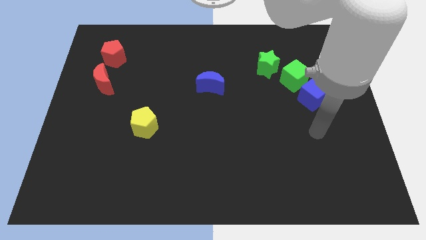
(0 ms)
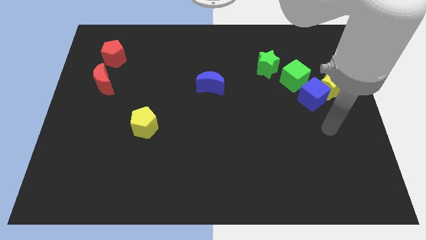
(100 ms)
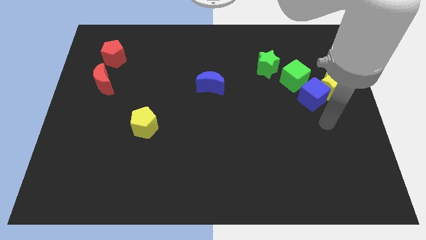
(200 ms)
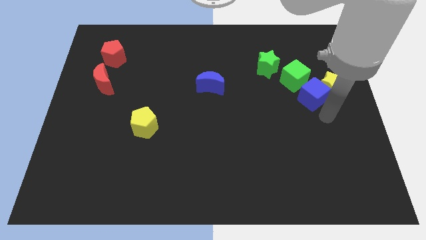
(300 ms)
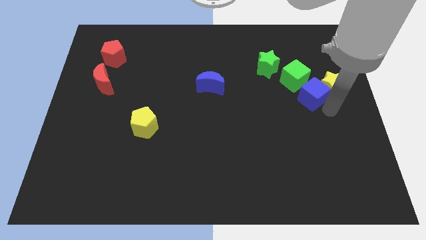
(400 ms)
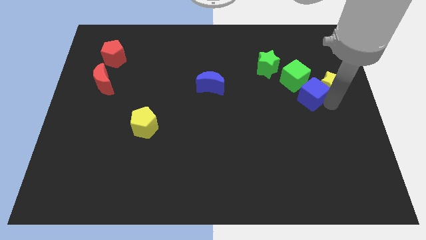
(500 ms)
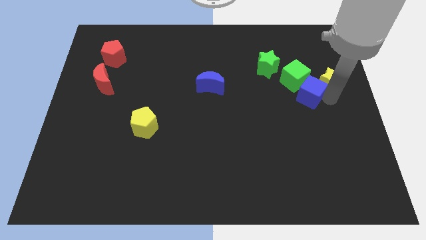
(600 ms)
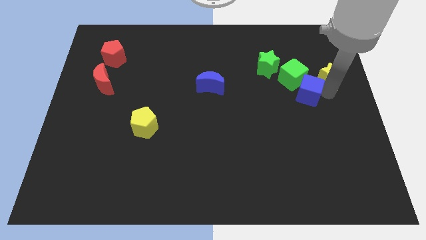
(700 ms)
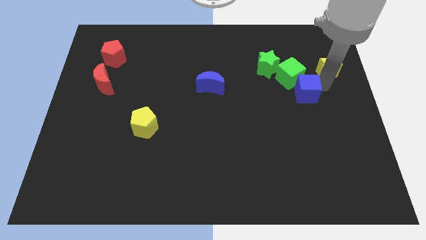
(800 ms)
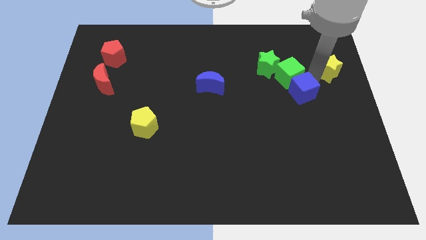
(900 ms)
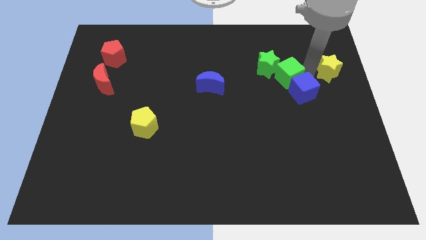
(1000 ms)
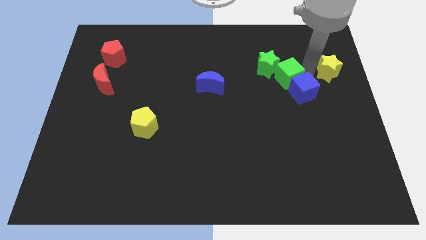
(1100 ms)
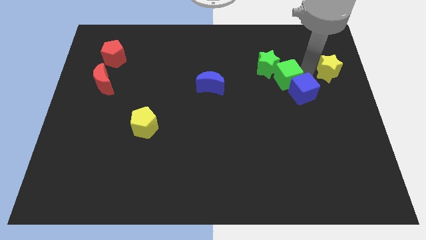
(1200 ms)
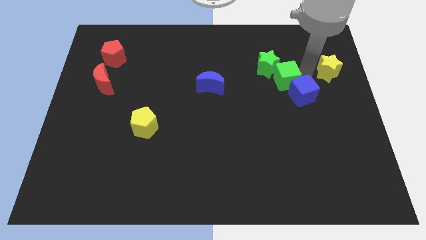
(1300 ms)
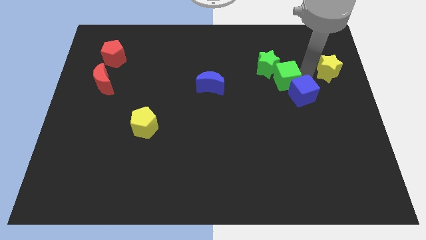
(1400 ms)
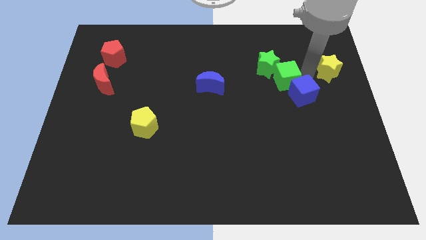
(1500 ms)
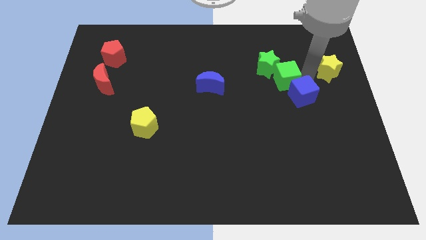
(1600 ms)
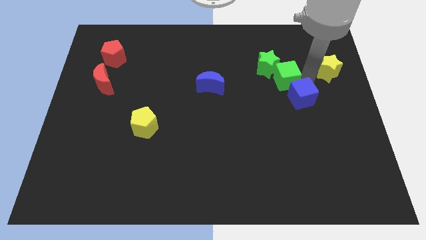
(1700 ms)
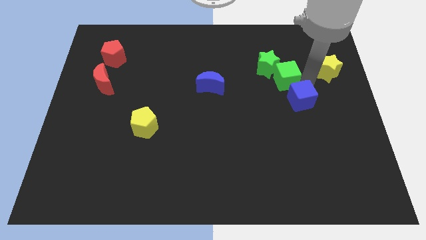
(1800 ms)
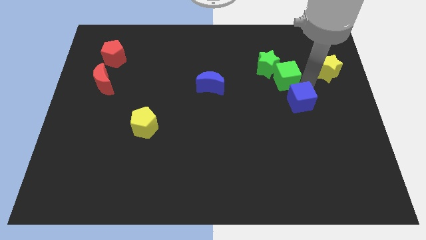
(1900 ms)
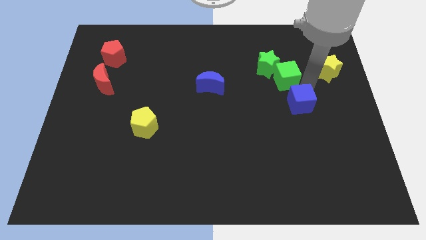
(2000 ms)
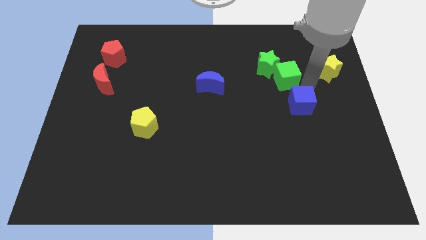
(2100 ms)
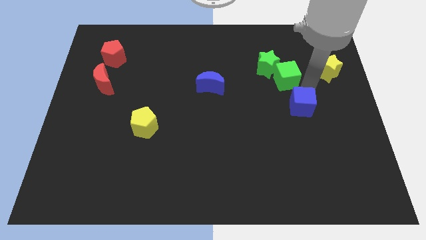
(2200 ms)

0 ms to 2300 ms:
separate the blue cube from the yellow star and green cube

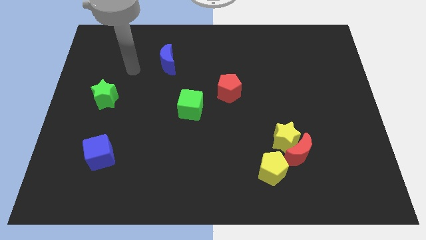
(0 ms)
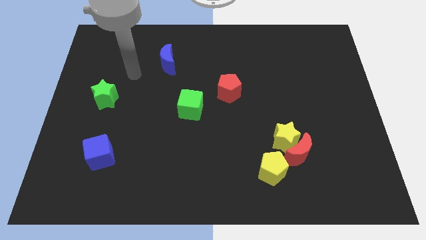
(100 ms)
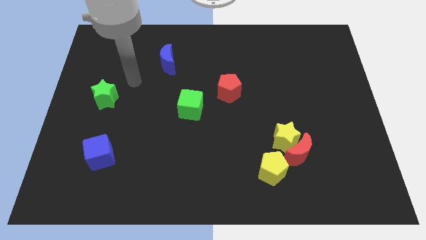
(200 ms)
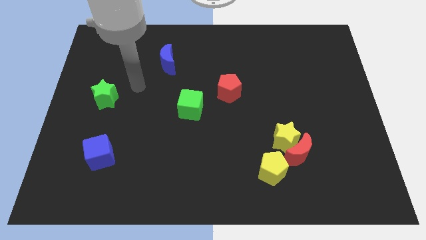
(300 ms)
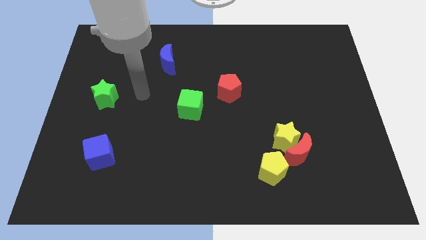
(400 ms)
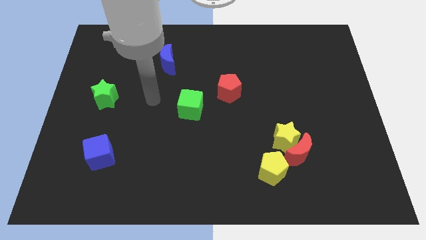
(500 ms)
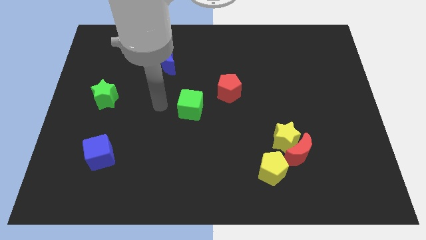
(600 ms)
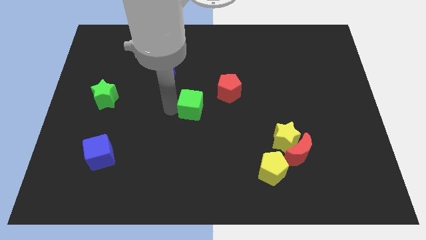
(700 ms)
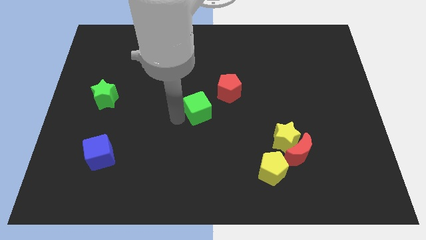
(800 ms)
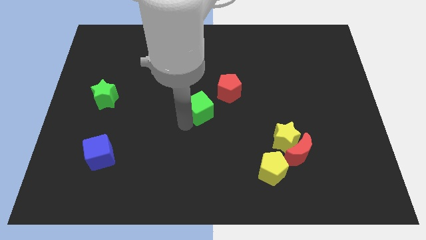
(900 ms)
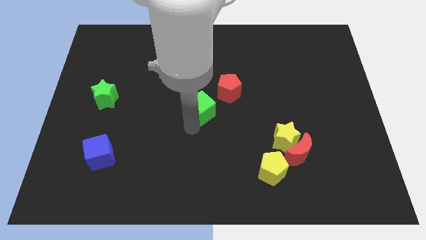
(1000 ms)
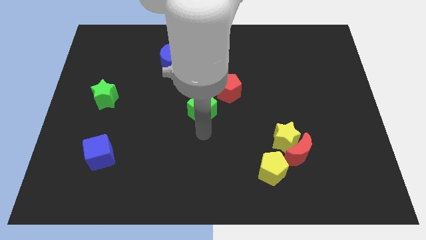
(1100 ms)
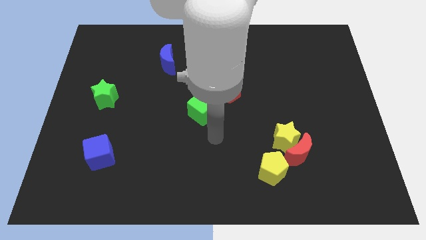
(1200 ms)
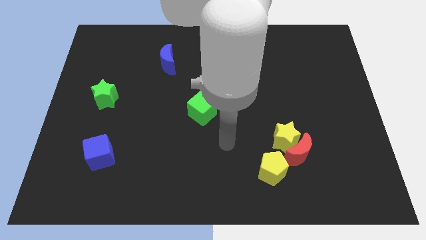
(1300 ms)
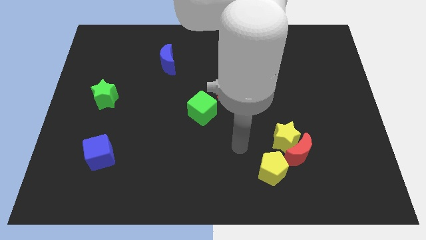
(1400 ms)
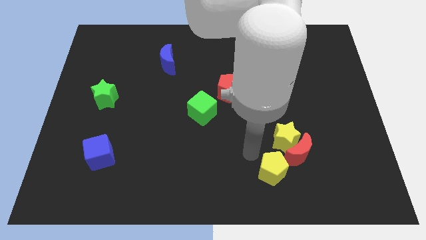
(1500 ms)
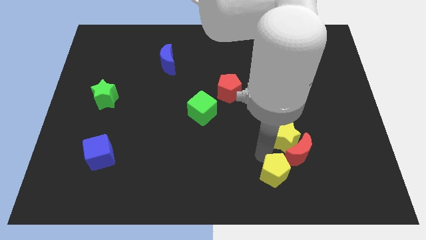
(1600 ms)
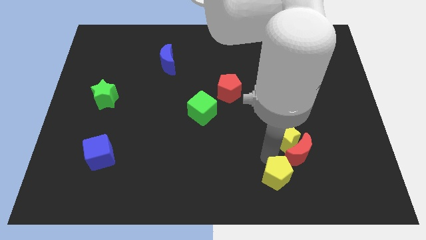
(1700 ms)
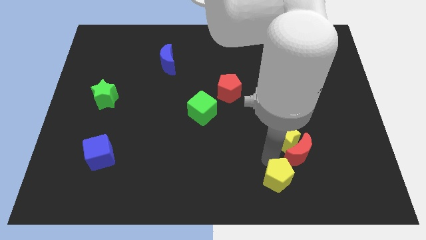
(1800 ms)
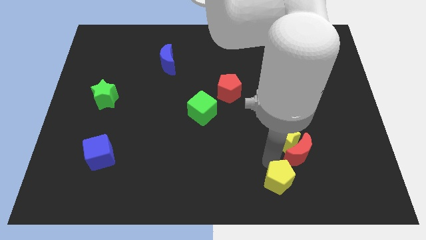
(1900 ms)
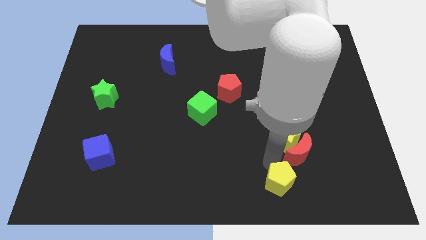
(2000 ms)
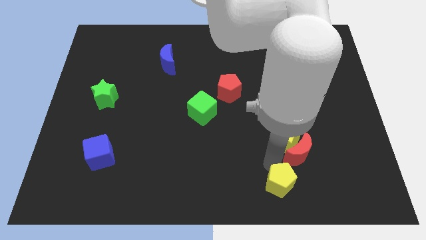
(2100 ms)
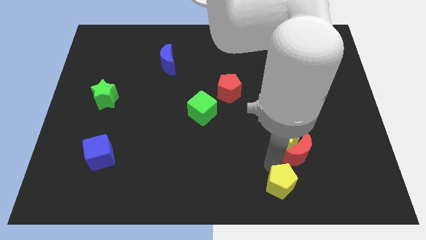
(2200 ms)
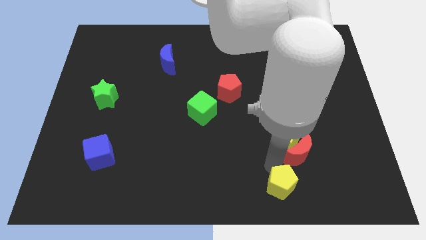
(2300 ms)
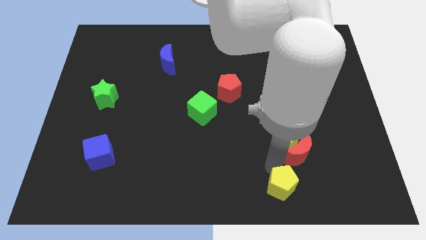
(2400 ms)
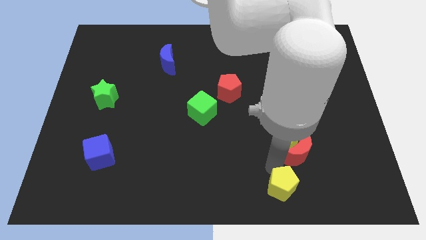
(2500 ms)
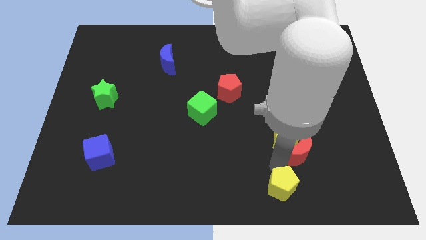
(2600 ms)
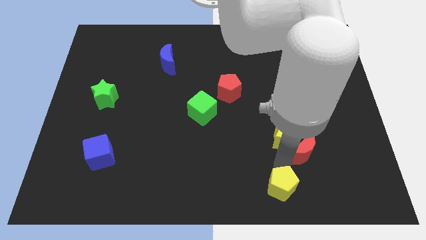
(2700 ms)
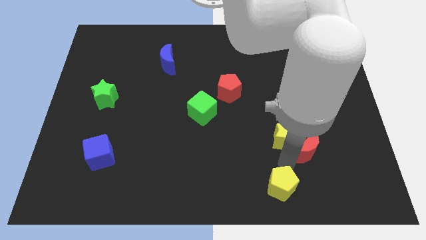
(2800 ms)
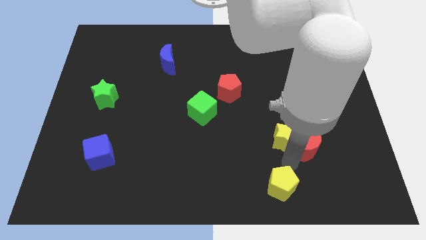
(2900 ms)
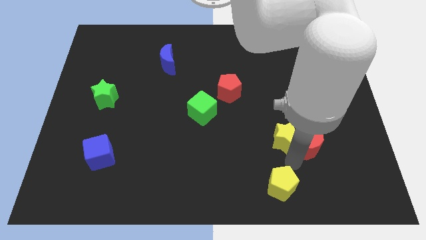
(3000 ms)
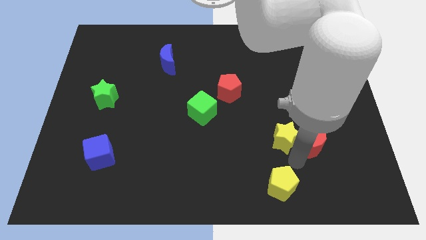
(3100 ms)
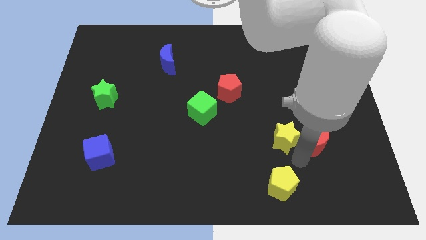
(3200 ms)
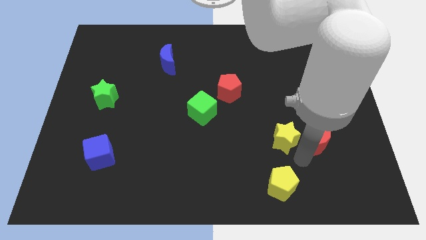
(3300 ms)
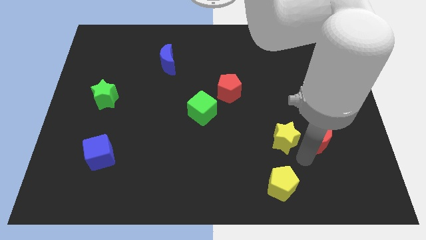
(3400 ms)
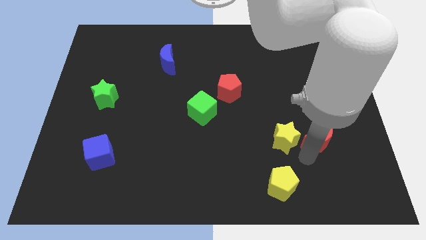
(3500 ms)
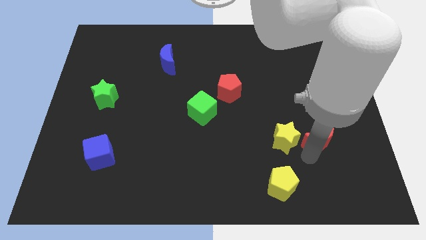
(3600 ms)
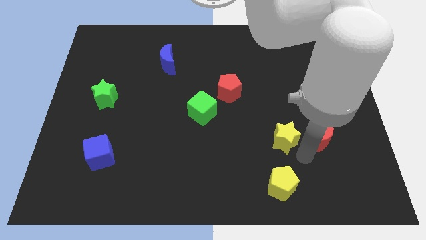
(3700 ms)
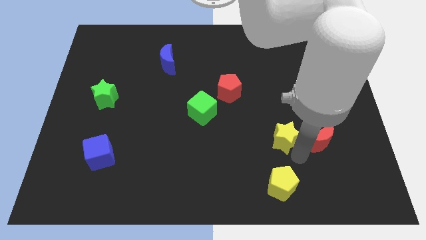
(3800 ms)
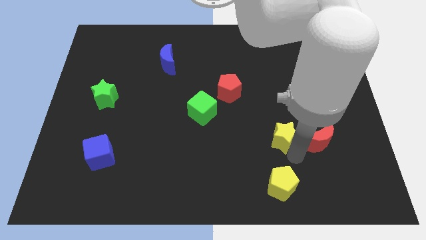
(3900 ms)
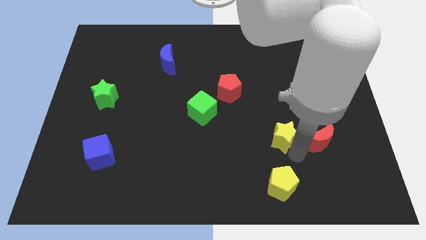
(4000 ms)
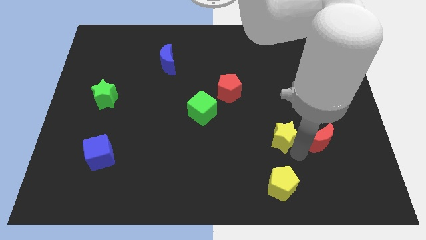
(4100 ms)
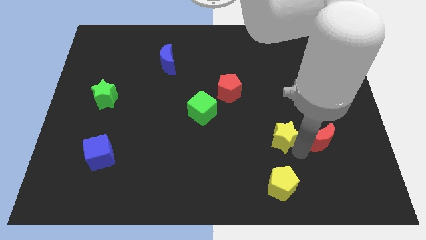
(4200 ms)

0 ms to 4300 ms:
move the red moon away from the yellow star and yellow pentagon

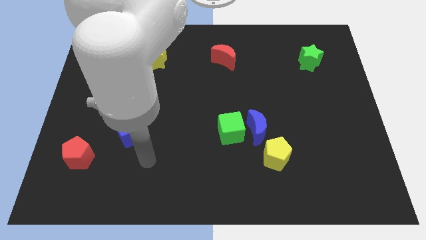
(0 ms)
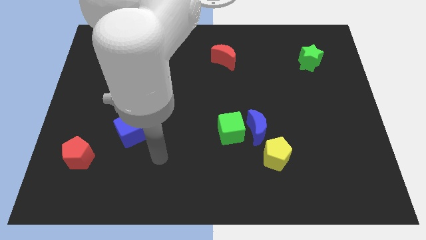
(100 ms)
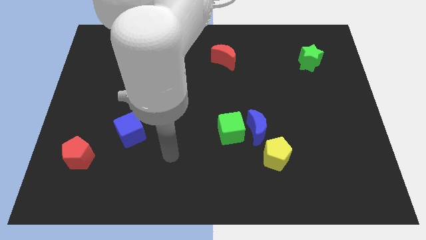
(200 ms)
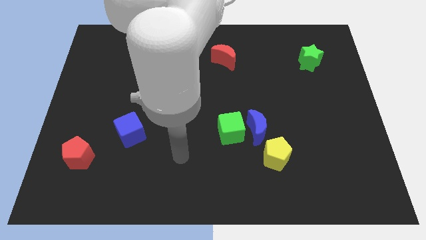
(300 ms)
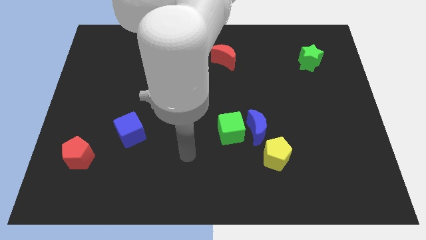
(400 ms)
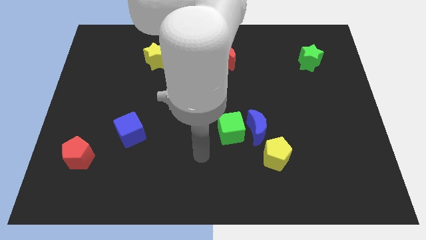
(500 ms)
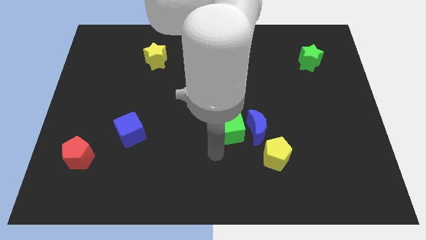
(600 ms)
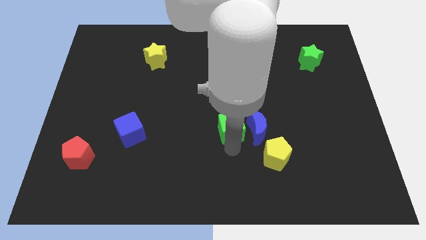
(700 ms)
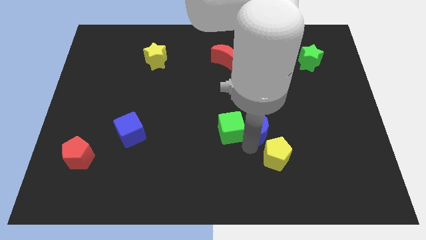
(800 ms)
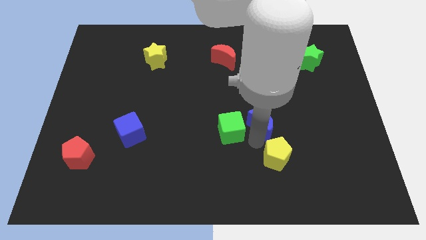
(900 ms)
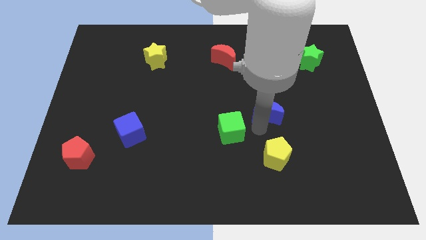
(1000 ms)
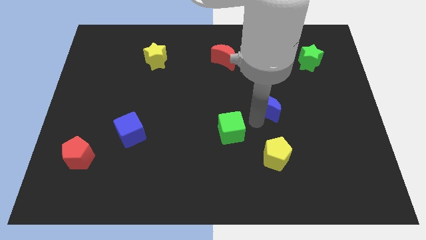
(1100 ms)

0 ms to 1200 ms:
separate the green cube from the blue moon

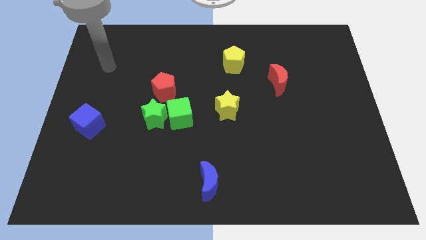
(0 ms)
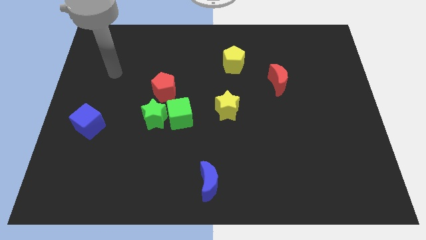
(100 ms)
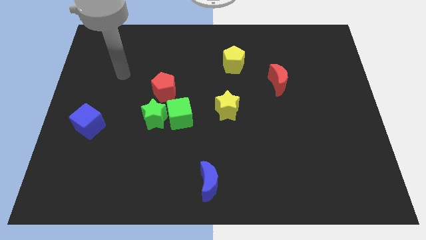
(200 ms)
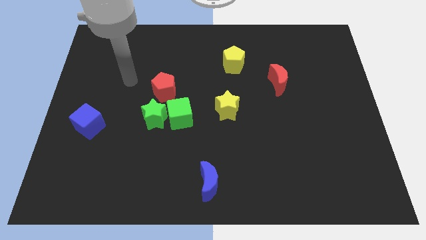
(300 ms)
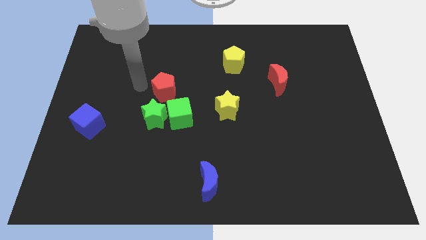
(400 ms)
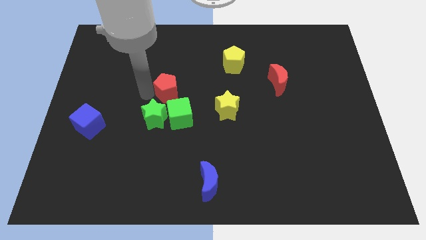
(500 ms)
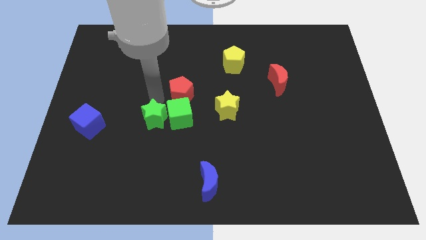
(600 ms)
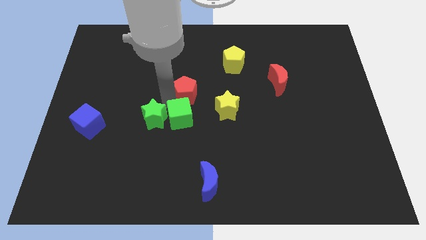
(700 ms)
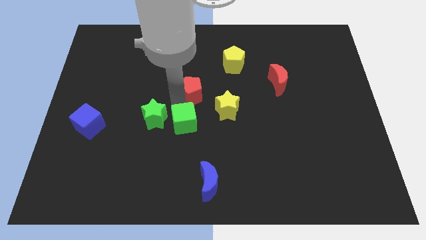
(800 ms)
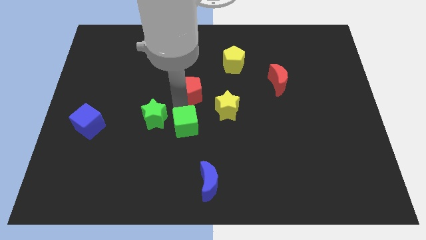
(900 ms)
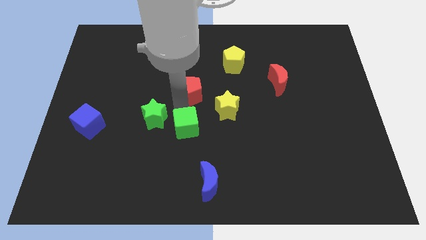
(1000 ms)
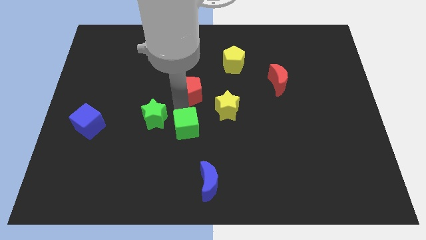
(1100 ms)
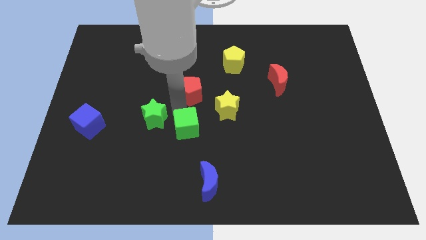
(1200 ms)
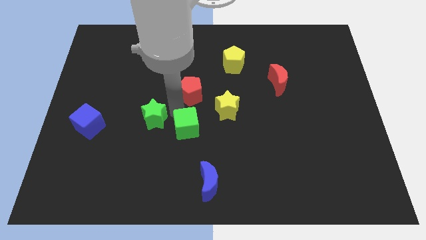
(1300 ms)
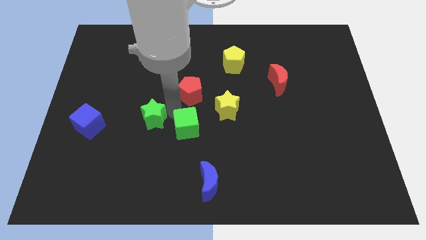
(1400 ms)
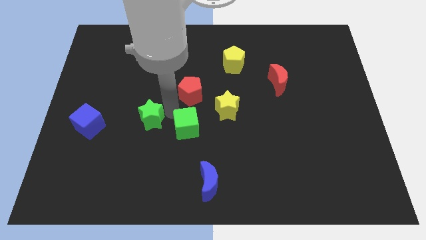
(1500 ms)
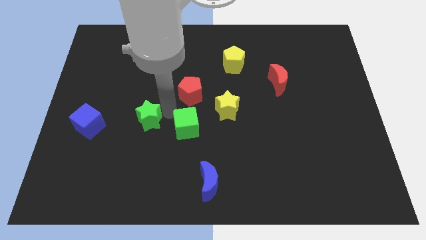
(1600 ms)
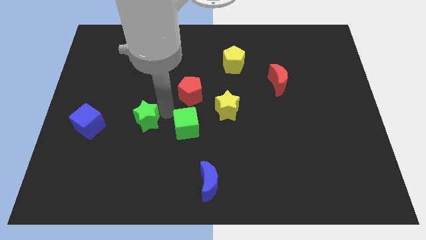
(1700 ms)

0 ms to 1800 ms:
pull the green star apart from the green cube and red pentagon
